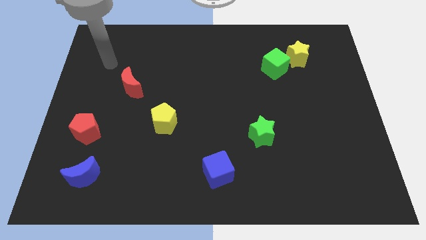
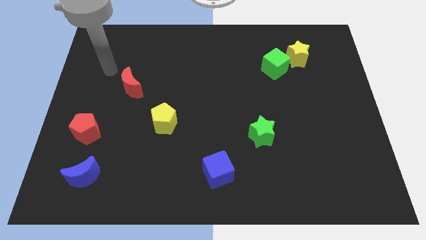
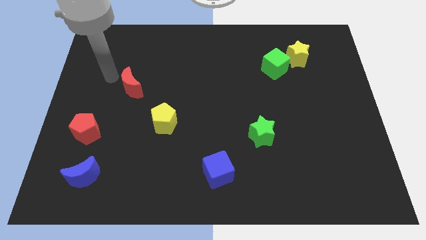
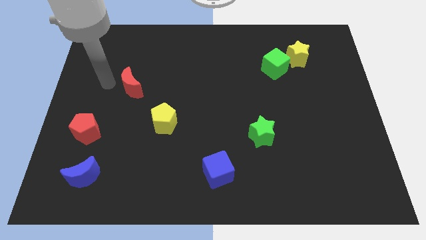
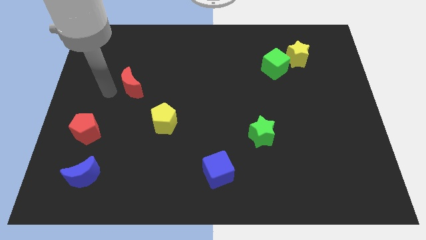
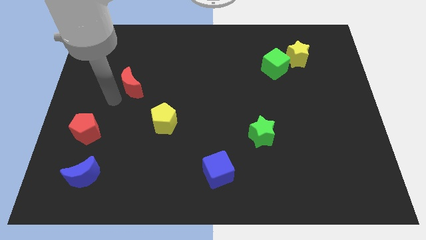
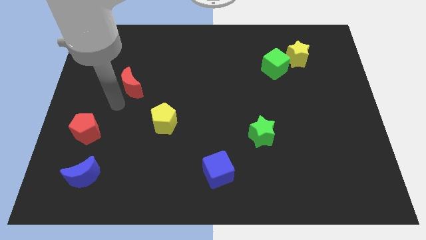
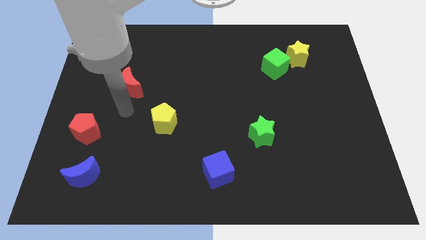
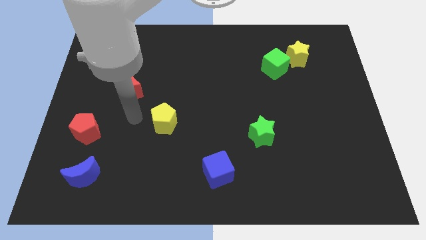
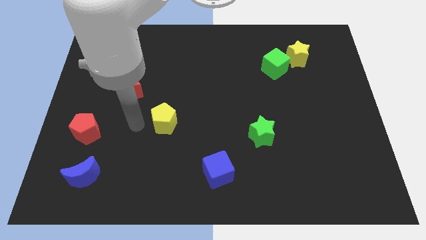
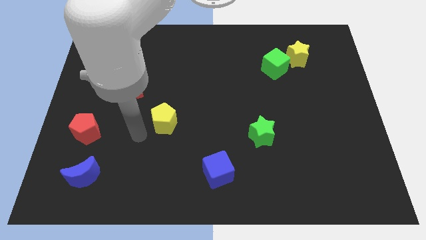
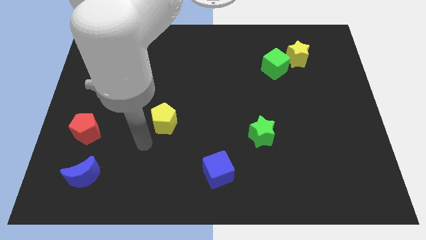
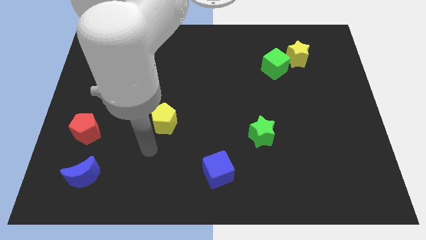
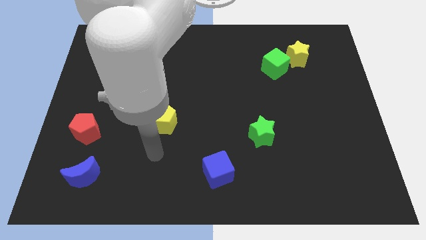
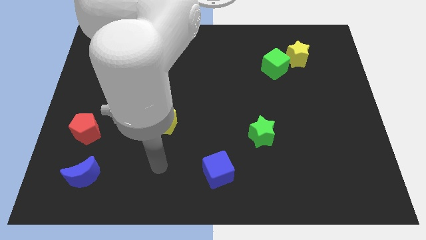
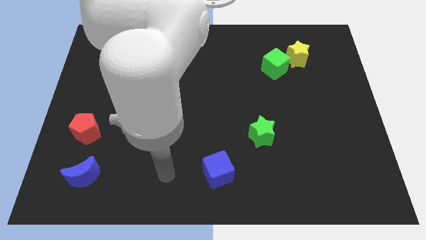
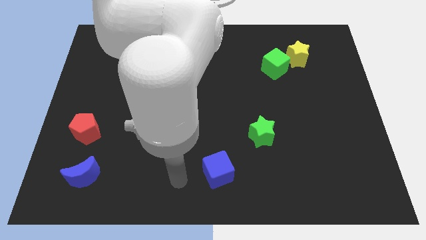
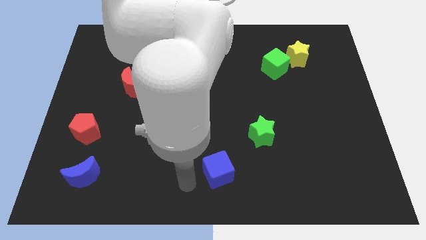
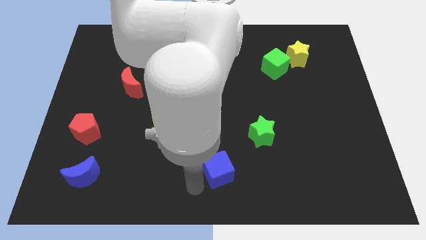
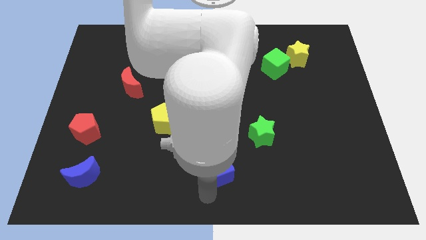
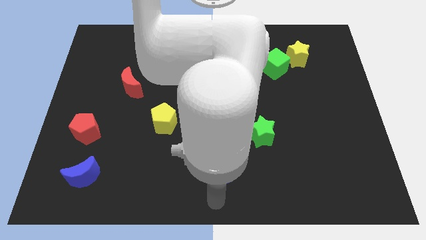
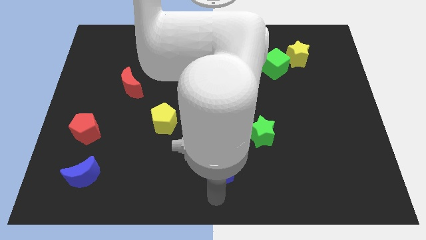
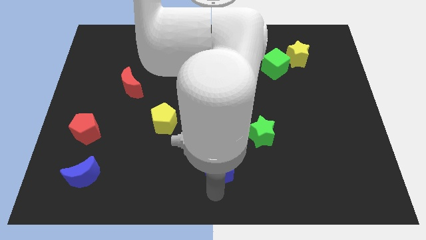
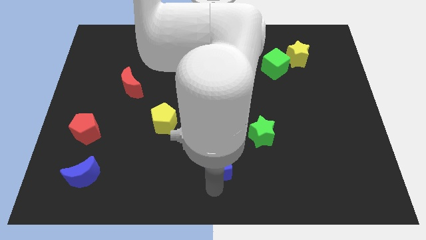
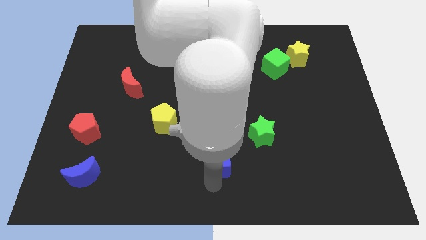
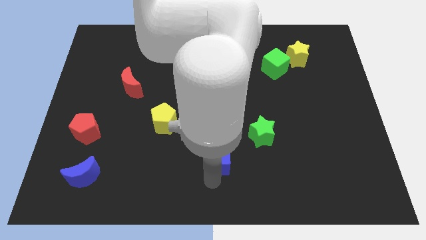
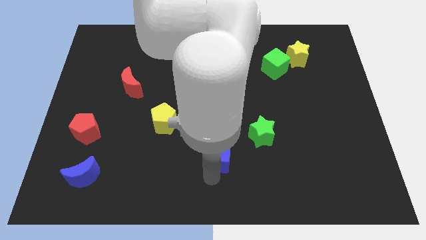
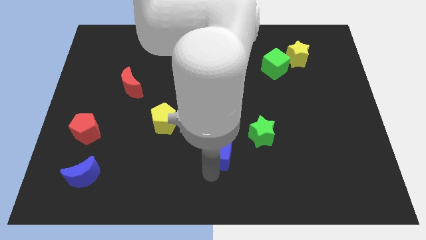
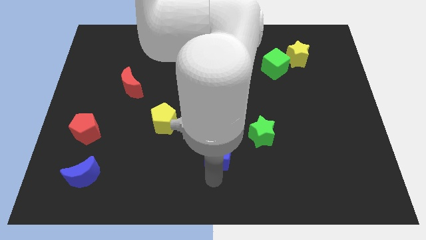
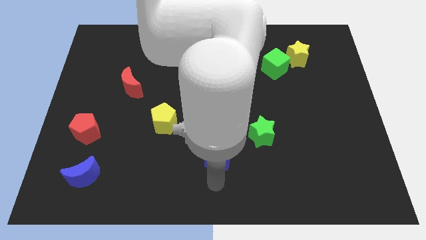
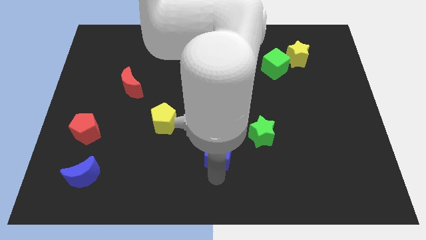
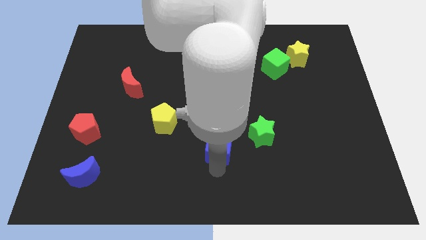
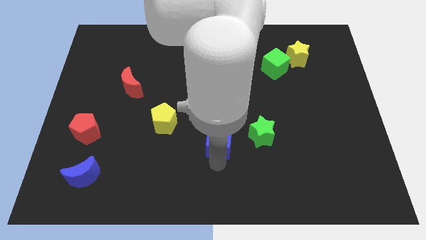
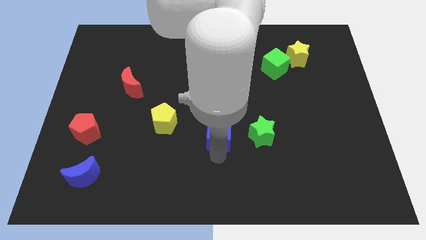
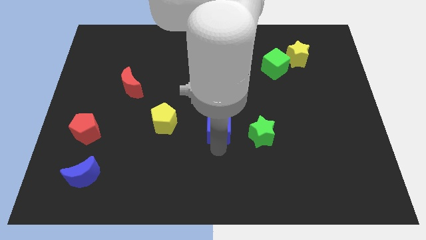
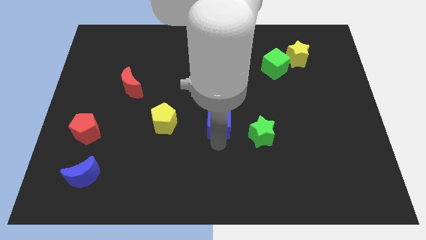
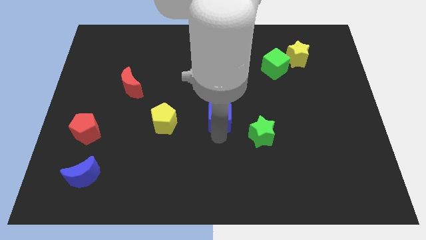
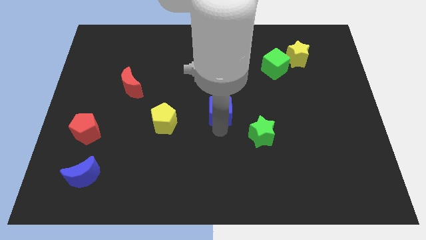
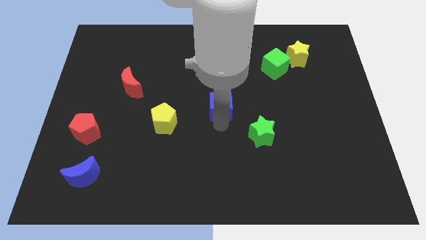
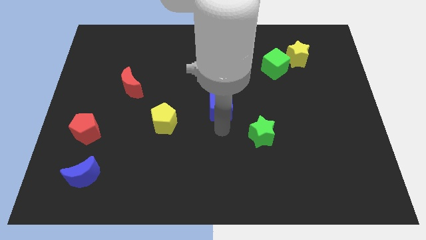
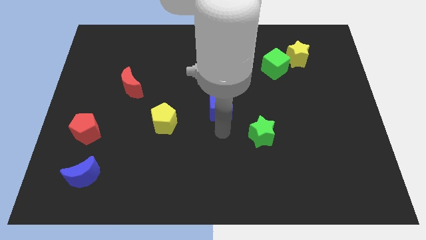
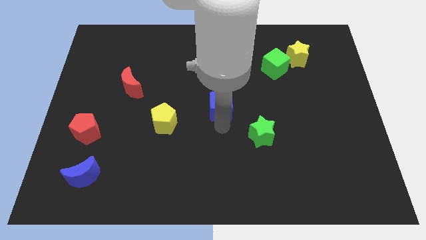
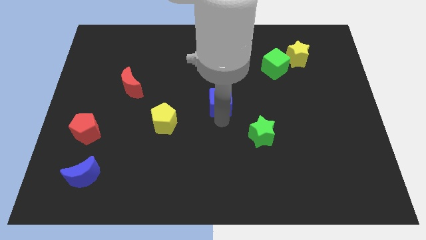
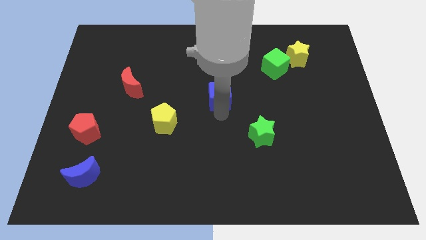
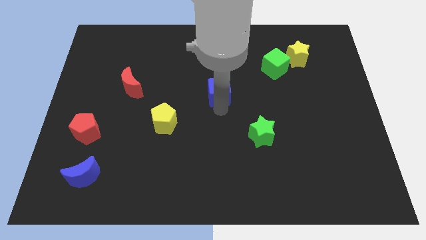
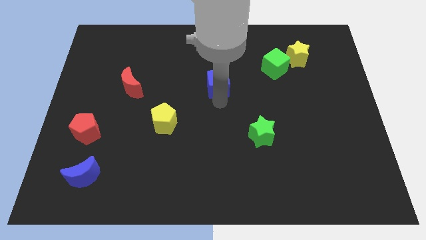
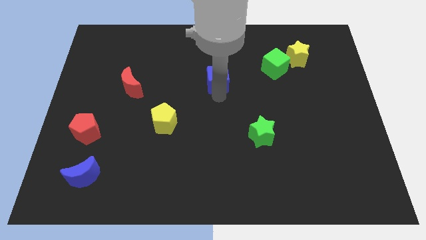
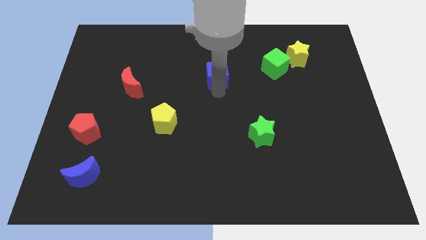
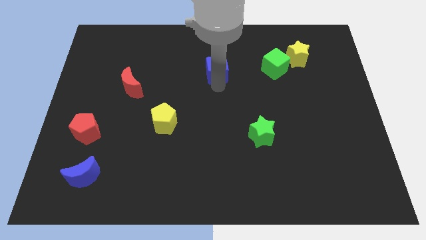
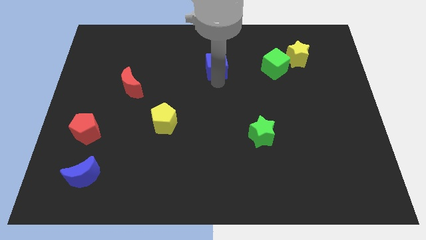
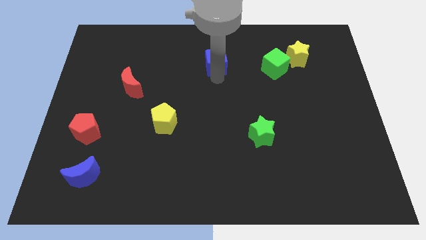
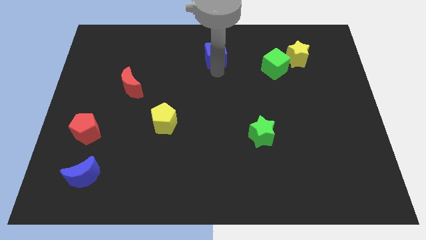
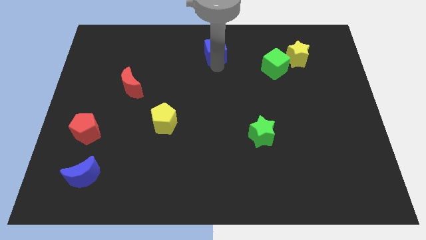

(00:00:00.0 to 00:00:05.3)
slide the blue cube to the top side

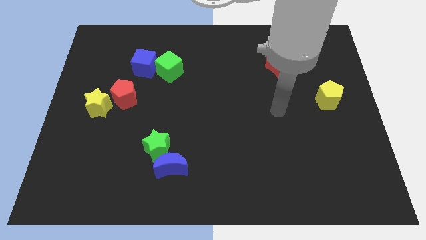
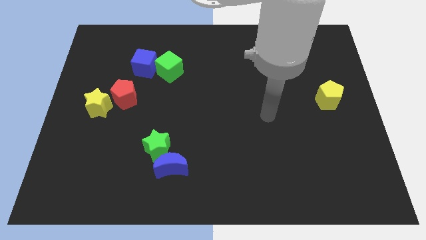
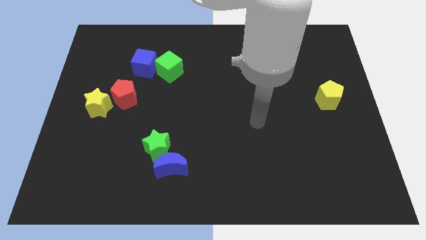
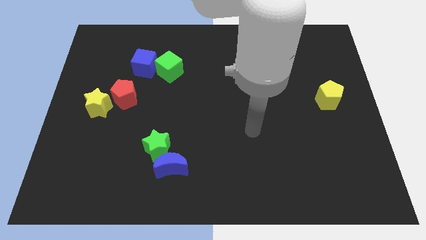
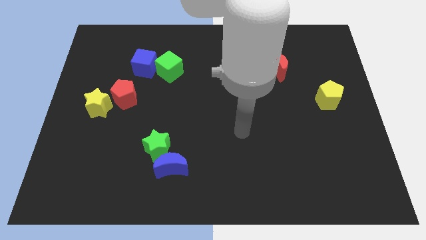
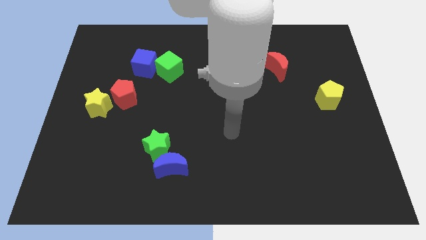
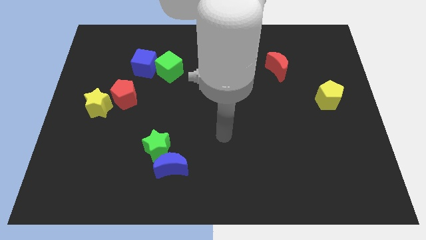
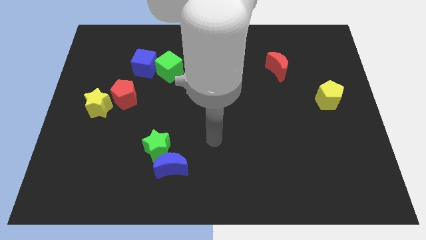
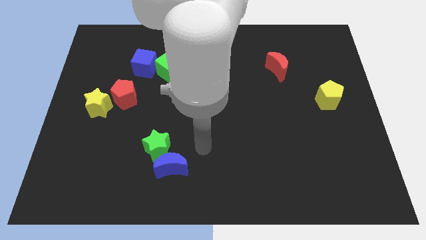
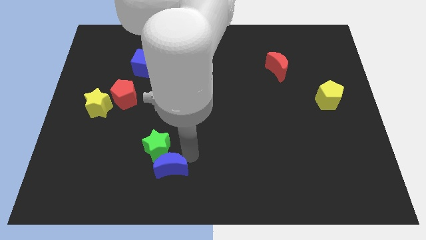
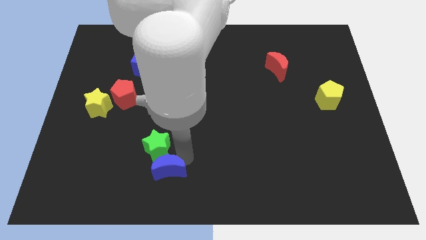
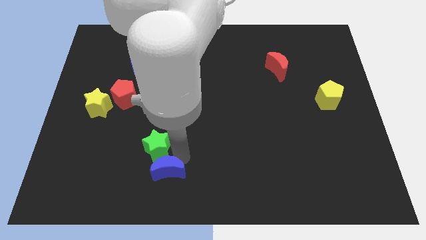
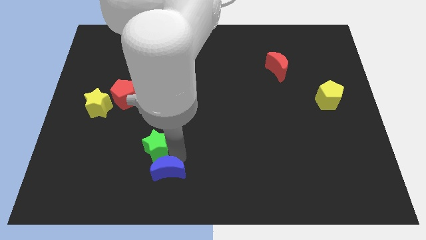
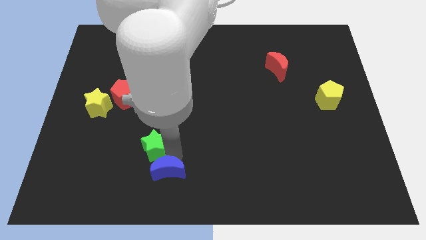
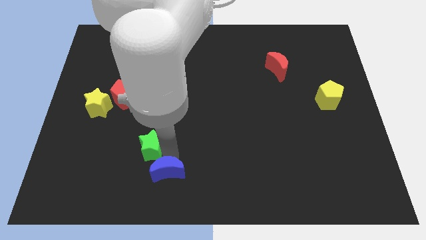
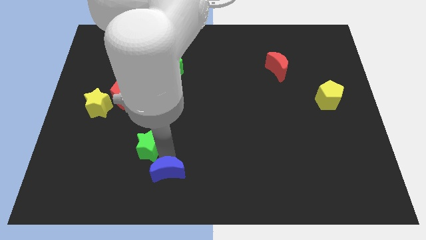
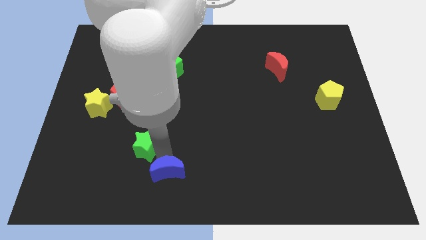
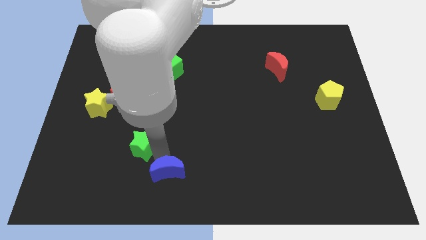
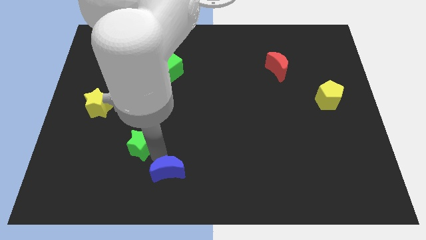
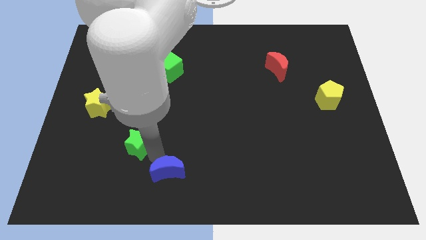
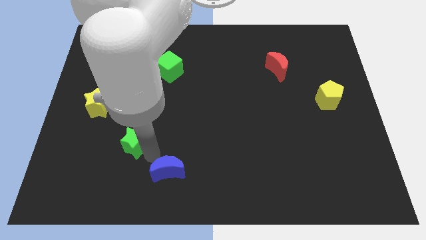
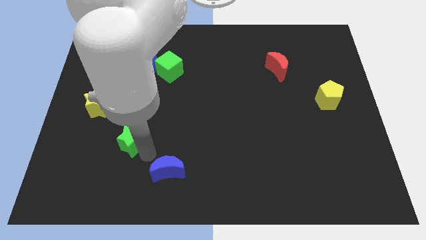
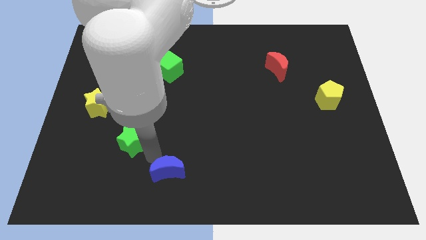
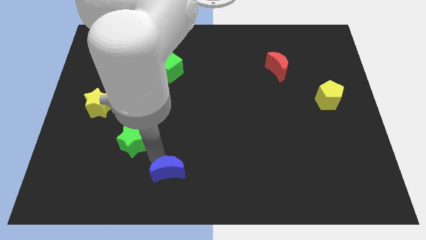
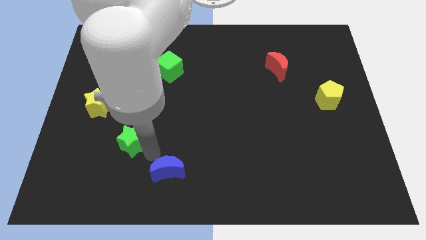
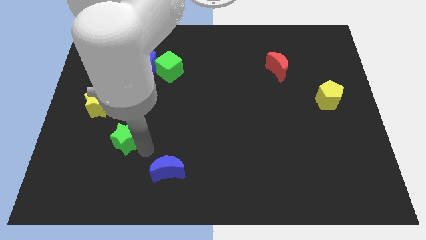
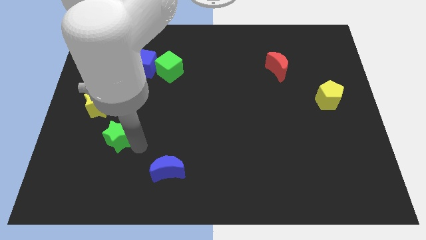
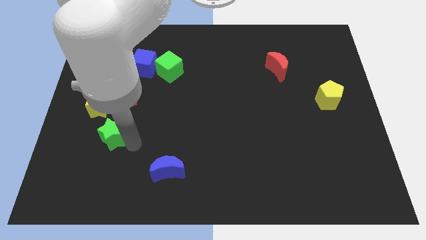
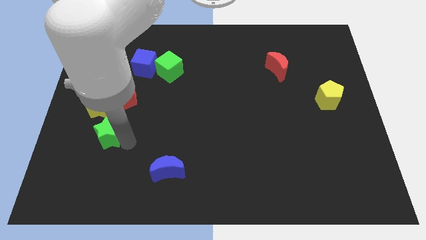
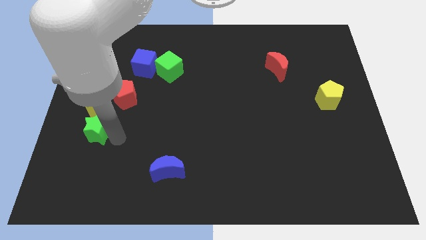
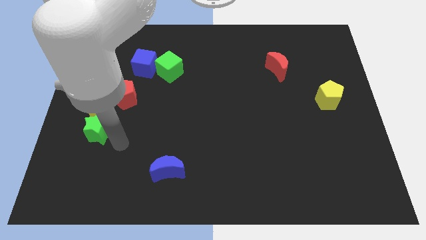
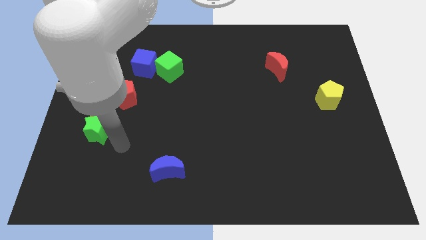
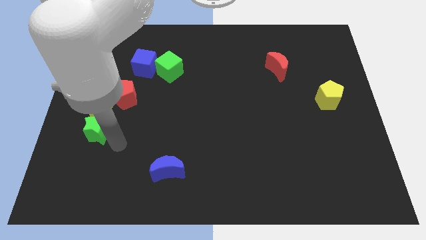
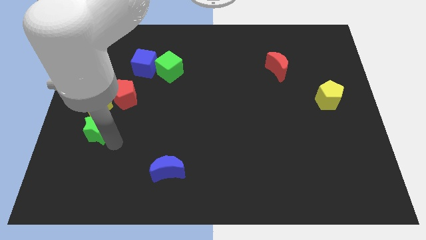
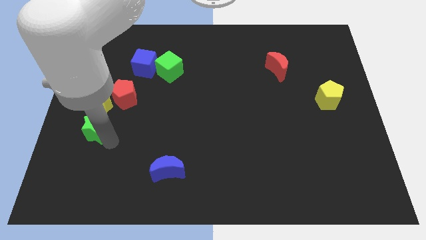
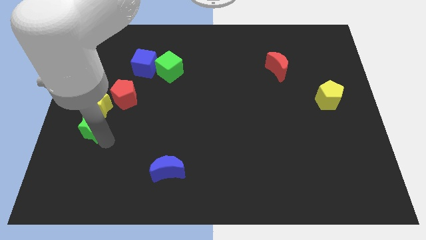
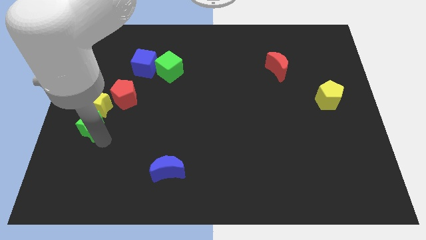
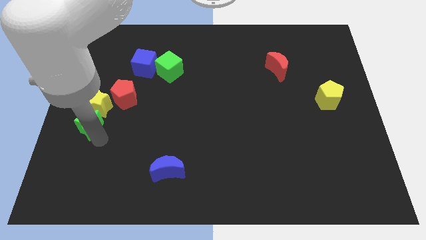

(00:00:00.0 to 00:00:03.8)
slide the green star to the center left
